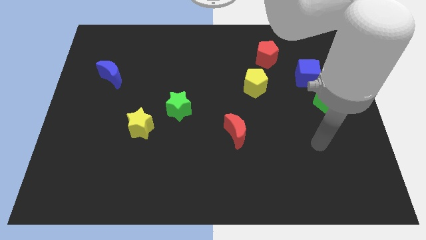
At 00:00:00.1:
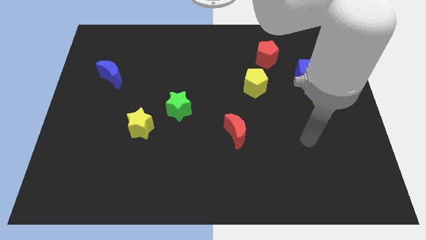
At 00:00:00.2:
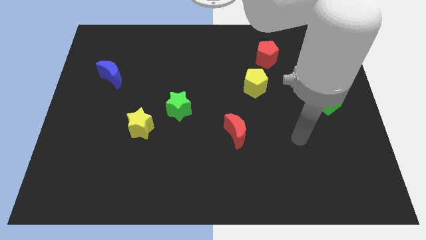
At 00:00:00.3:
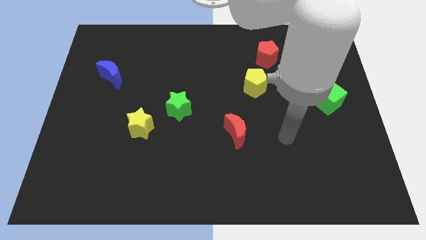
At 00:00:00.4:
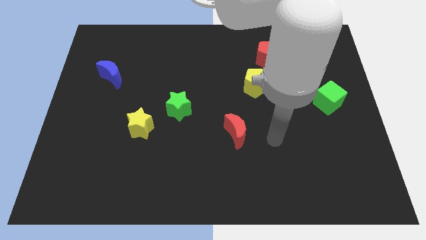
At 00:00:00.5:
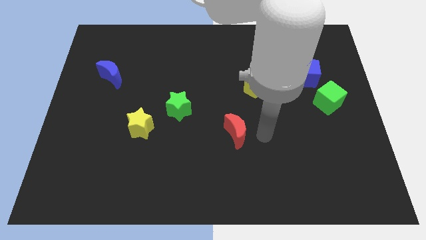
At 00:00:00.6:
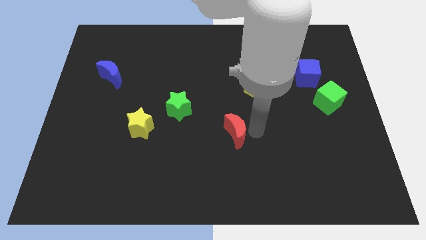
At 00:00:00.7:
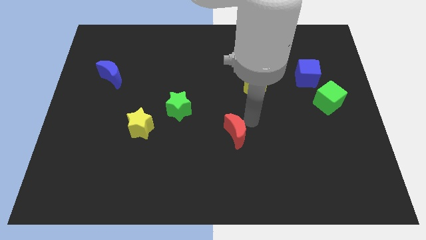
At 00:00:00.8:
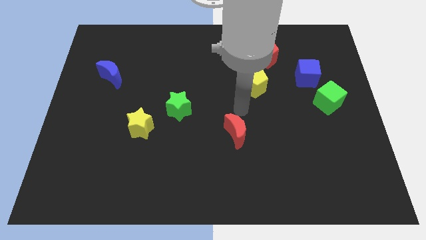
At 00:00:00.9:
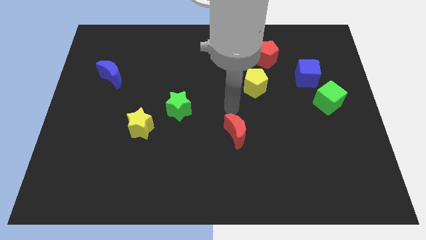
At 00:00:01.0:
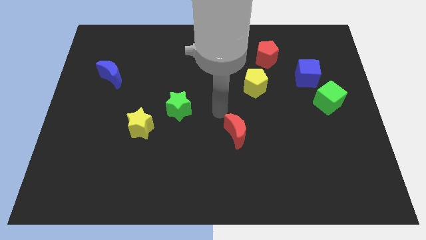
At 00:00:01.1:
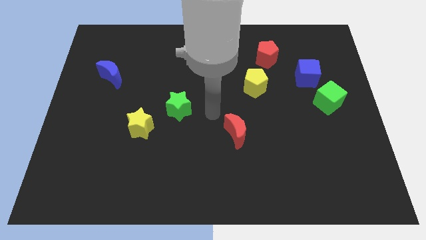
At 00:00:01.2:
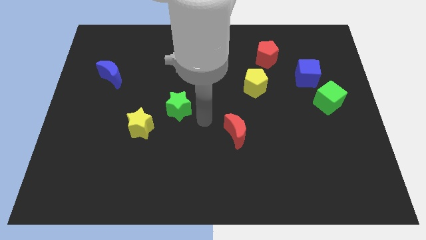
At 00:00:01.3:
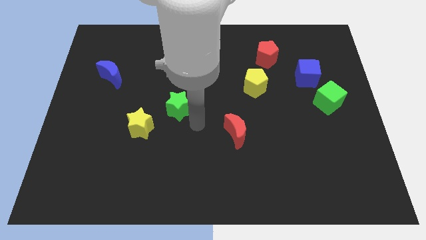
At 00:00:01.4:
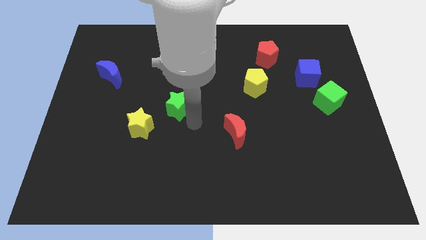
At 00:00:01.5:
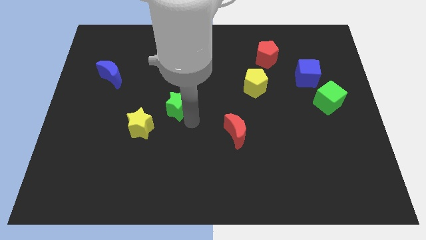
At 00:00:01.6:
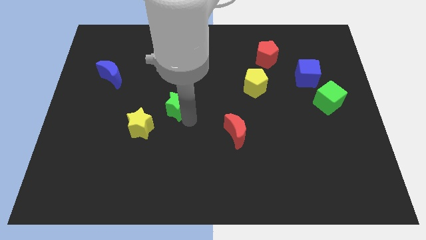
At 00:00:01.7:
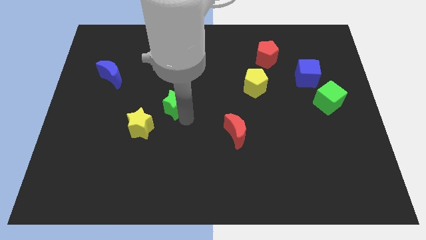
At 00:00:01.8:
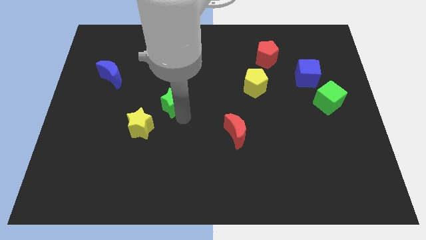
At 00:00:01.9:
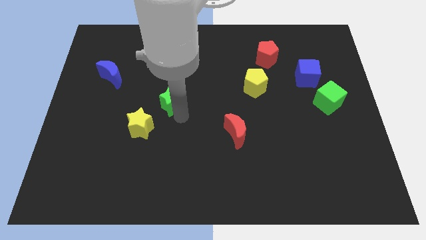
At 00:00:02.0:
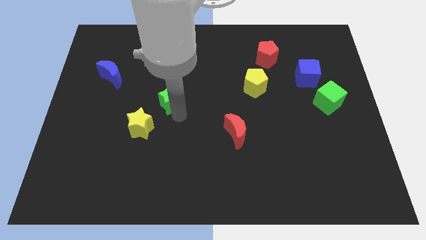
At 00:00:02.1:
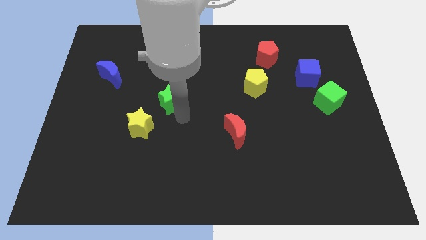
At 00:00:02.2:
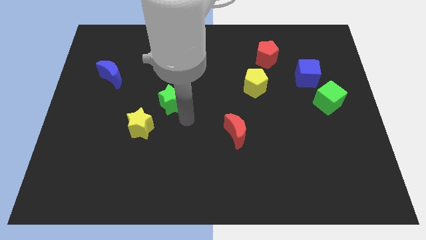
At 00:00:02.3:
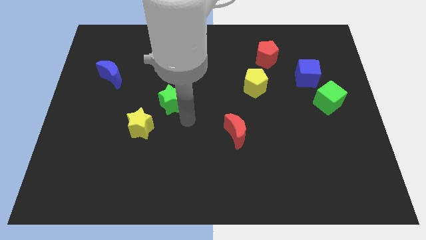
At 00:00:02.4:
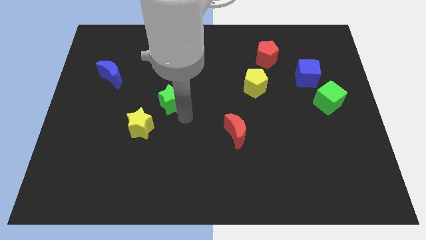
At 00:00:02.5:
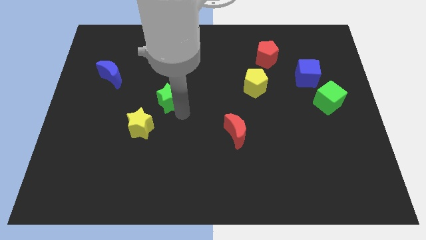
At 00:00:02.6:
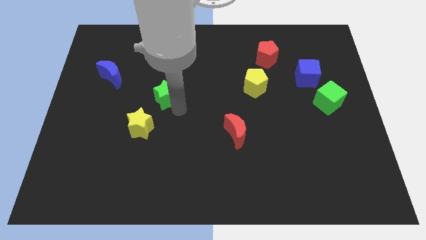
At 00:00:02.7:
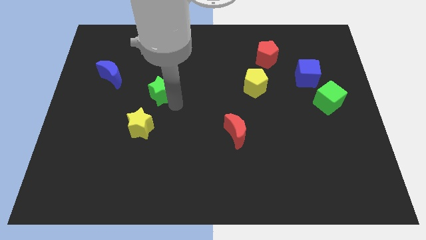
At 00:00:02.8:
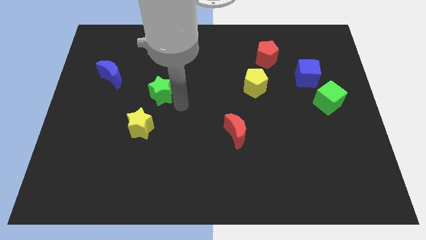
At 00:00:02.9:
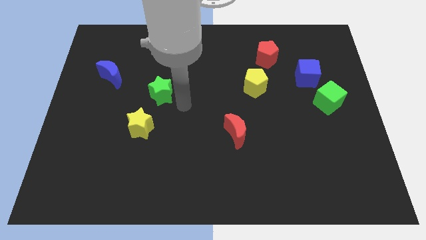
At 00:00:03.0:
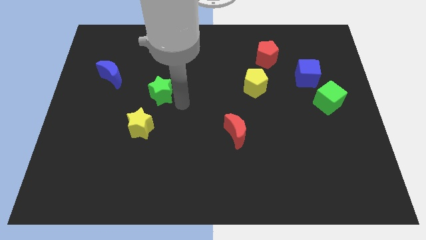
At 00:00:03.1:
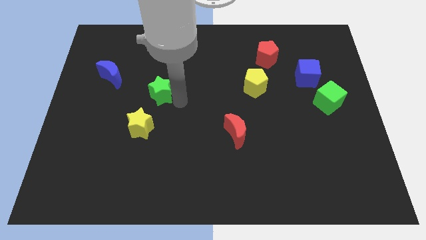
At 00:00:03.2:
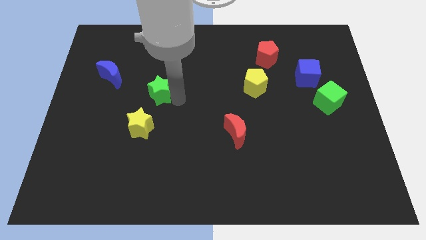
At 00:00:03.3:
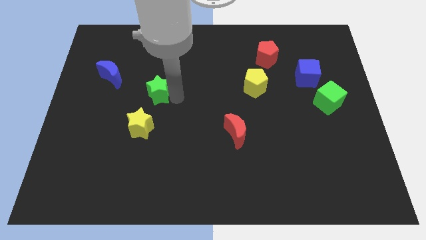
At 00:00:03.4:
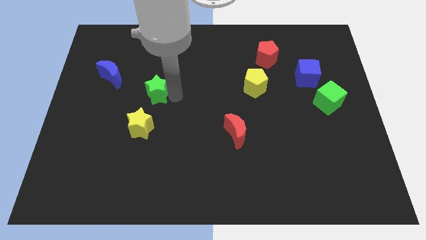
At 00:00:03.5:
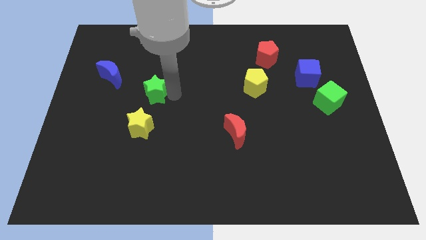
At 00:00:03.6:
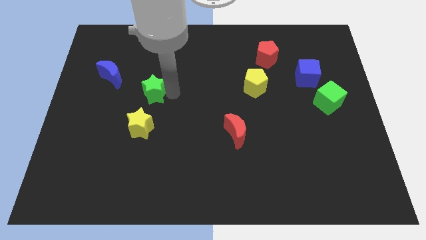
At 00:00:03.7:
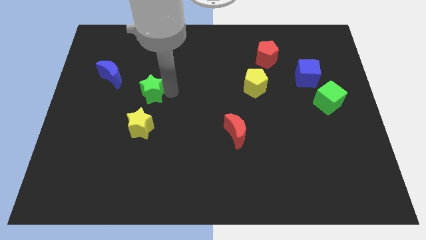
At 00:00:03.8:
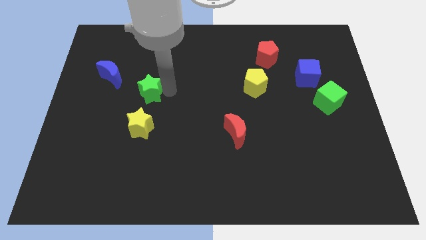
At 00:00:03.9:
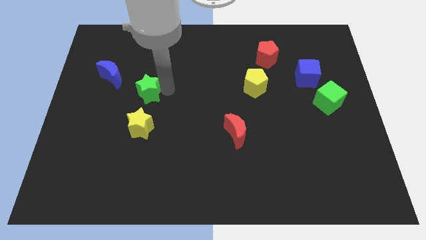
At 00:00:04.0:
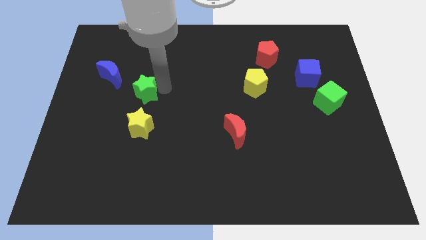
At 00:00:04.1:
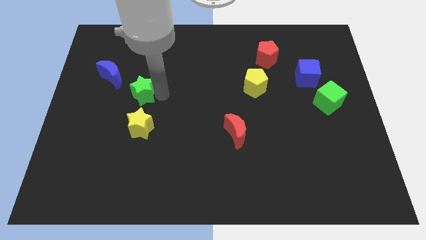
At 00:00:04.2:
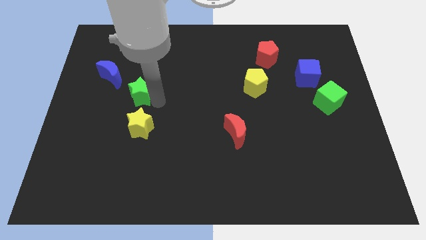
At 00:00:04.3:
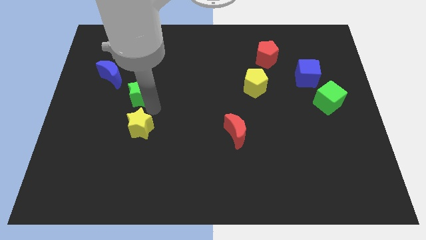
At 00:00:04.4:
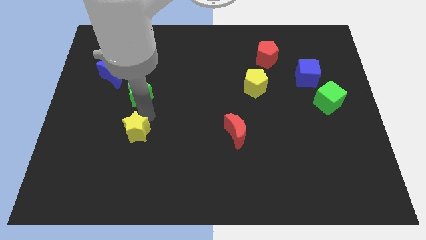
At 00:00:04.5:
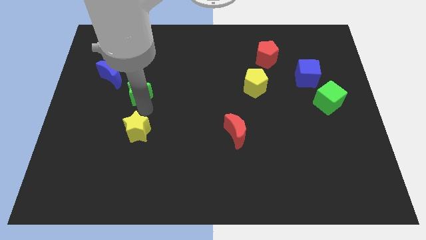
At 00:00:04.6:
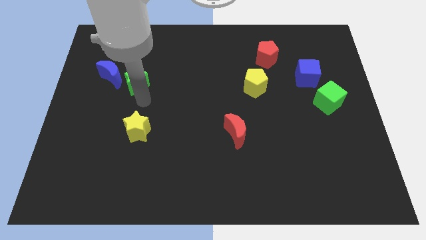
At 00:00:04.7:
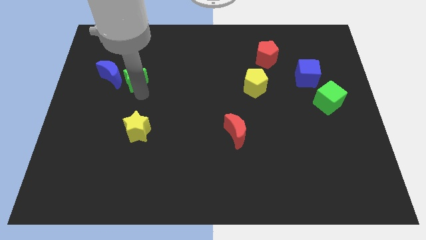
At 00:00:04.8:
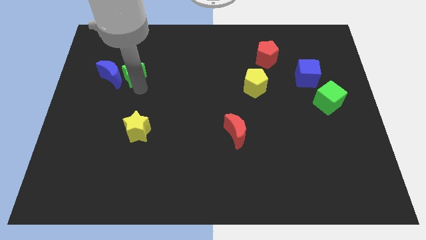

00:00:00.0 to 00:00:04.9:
move the green star to the top right side of the blue moon

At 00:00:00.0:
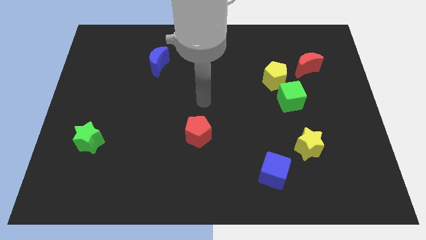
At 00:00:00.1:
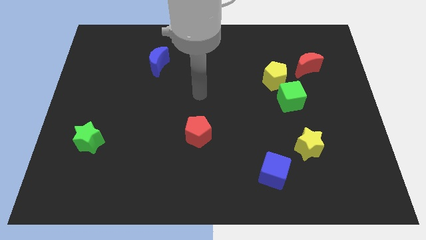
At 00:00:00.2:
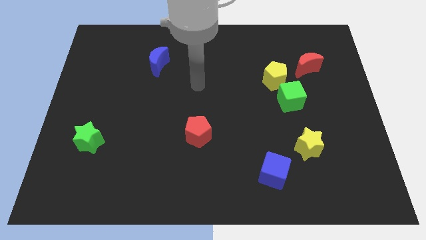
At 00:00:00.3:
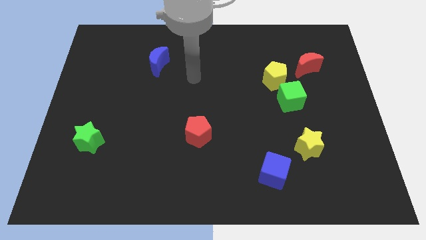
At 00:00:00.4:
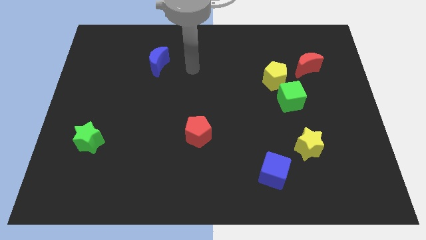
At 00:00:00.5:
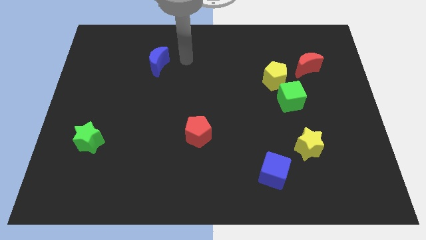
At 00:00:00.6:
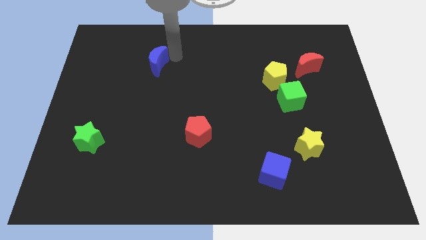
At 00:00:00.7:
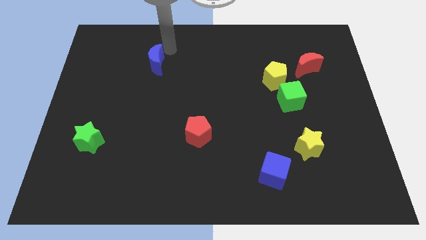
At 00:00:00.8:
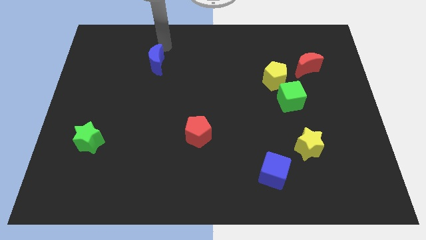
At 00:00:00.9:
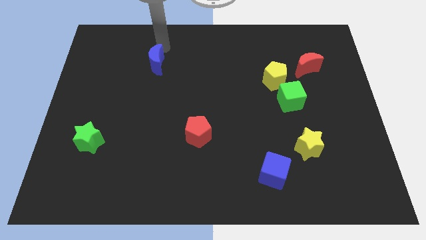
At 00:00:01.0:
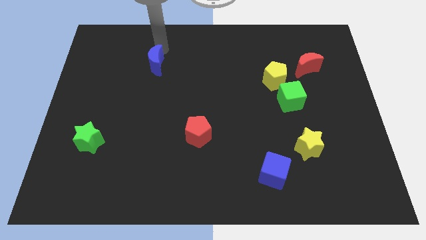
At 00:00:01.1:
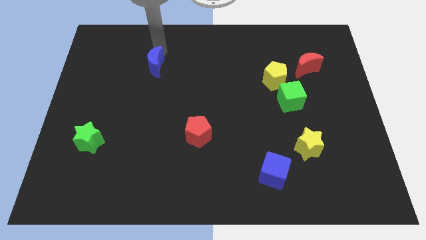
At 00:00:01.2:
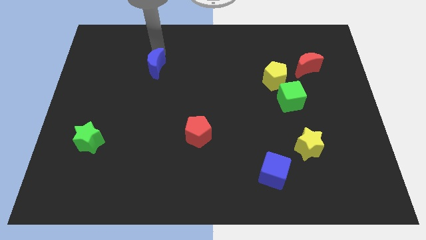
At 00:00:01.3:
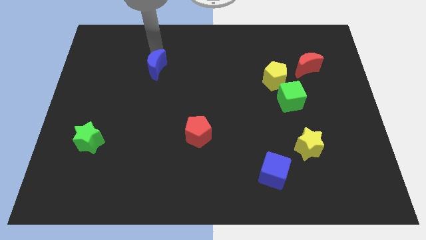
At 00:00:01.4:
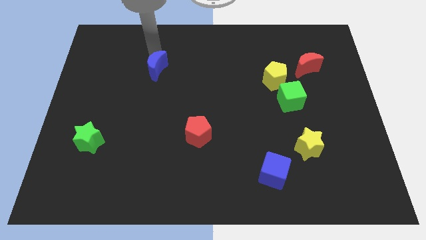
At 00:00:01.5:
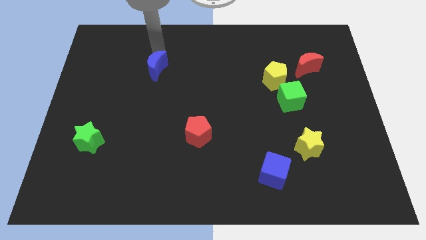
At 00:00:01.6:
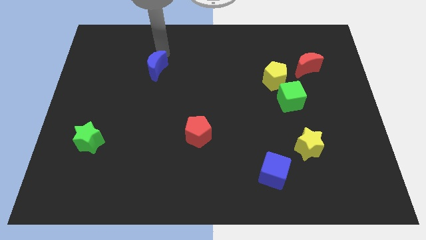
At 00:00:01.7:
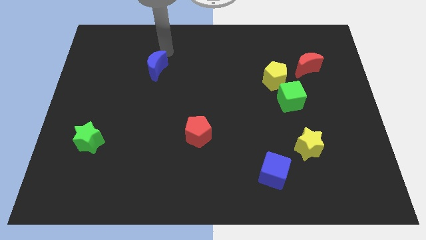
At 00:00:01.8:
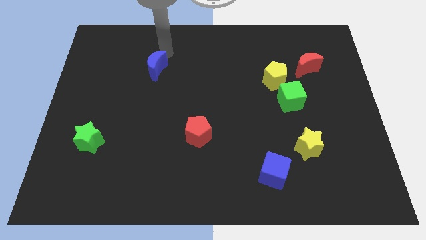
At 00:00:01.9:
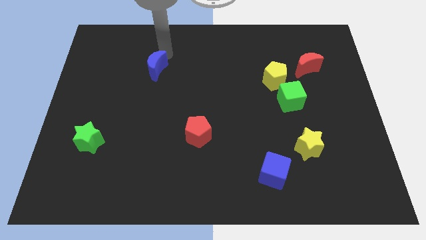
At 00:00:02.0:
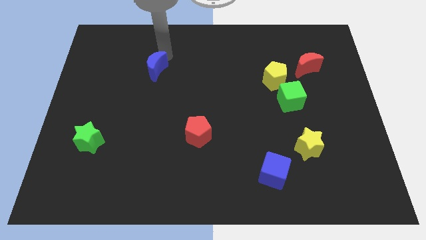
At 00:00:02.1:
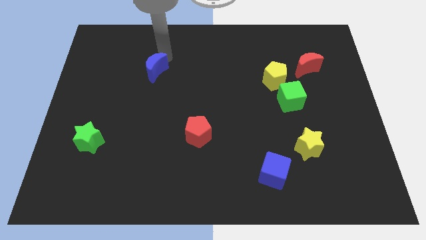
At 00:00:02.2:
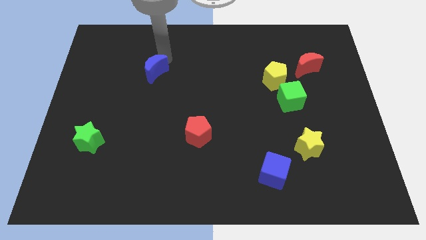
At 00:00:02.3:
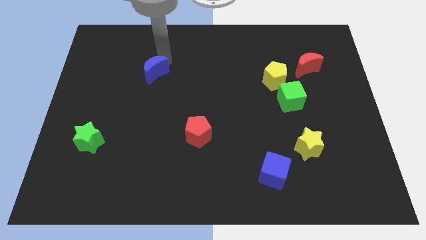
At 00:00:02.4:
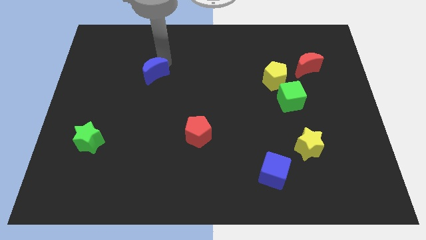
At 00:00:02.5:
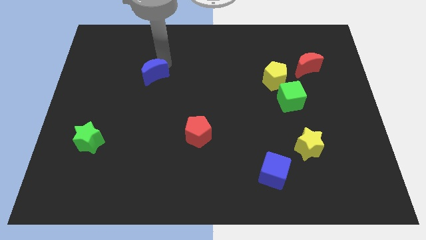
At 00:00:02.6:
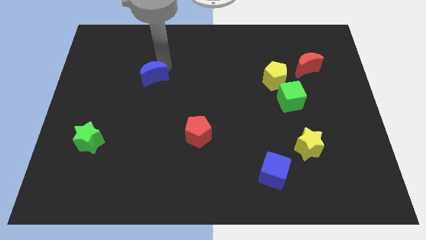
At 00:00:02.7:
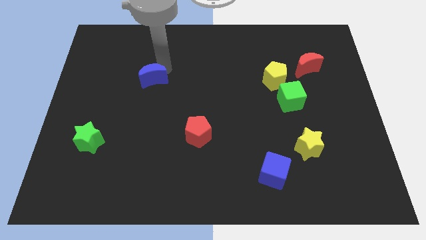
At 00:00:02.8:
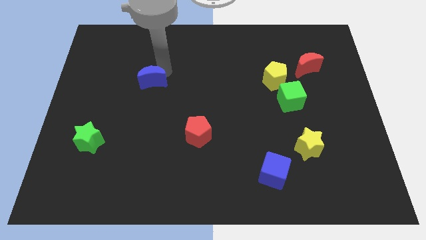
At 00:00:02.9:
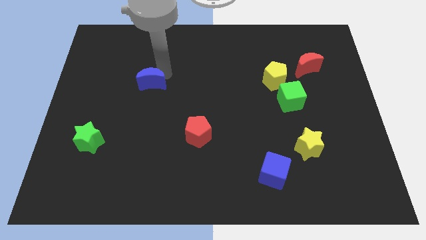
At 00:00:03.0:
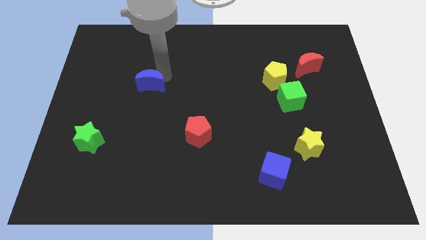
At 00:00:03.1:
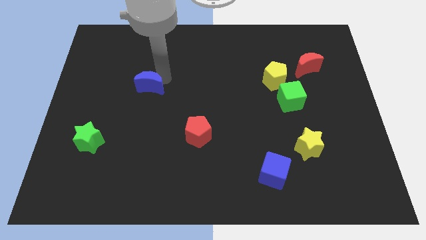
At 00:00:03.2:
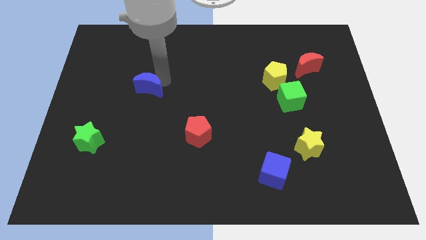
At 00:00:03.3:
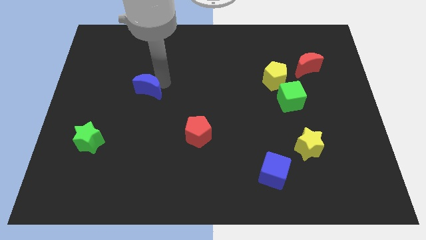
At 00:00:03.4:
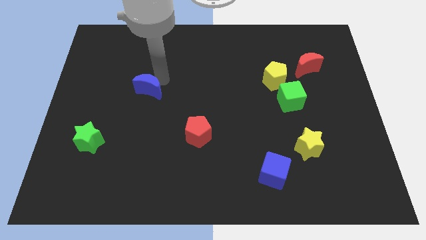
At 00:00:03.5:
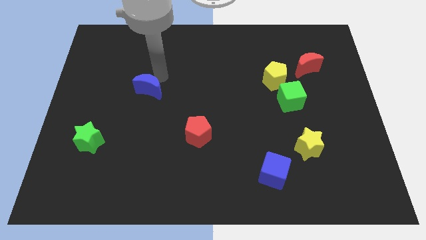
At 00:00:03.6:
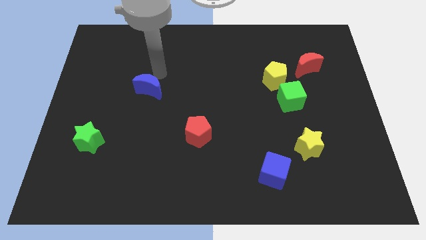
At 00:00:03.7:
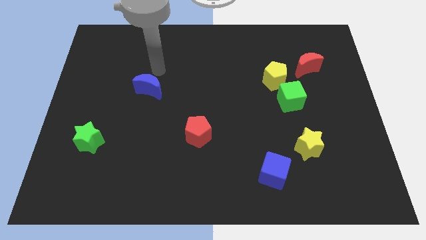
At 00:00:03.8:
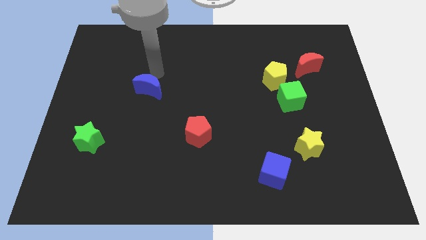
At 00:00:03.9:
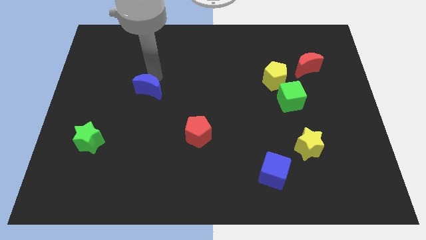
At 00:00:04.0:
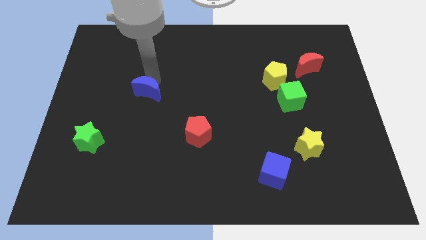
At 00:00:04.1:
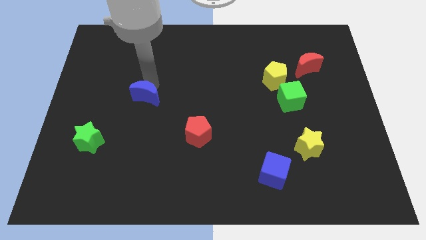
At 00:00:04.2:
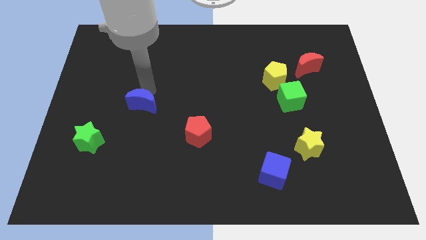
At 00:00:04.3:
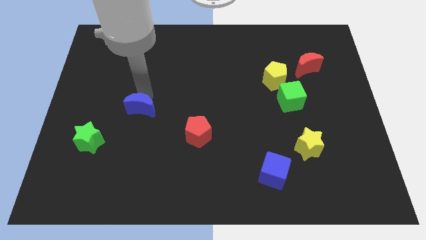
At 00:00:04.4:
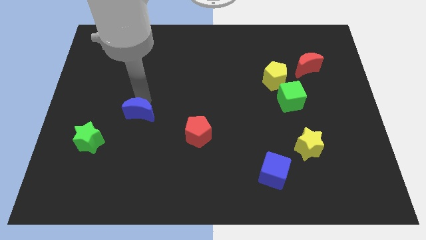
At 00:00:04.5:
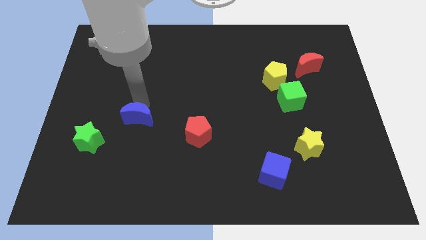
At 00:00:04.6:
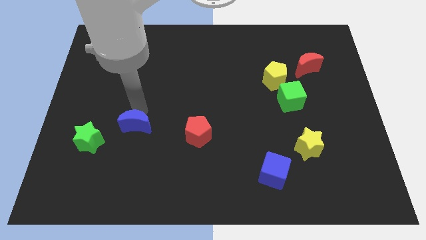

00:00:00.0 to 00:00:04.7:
put the blue moon right of the green star
